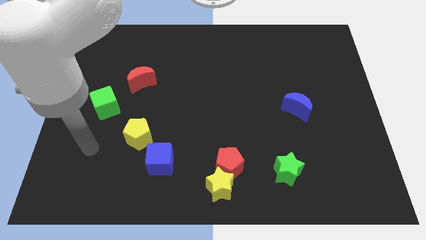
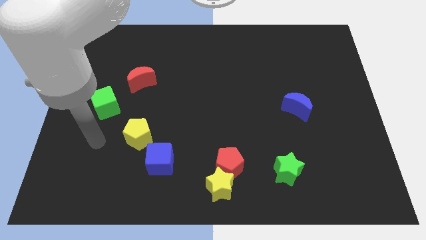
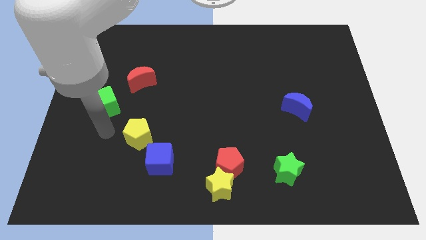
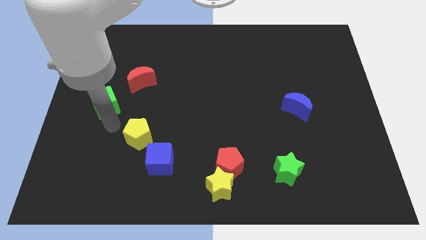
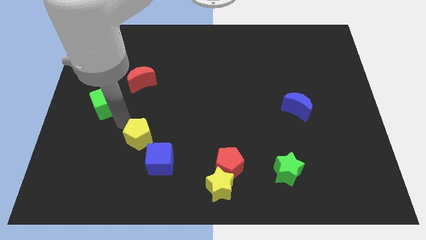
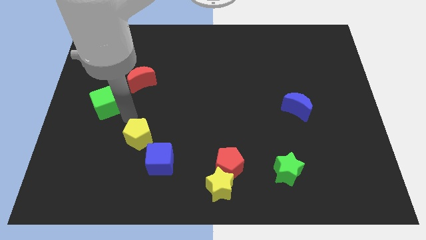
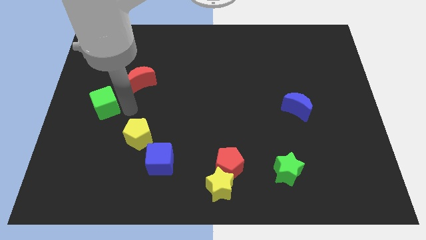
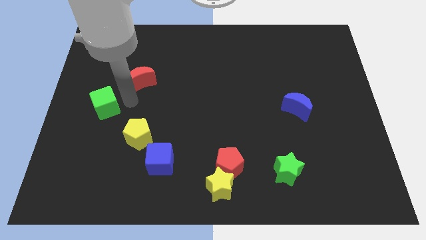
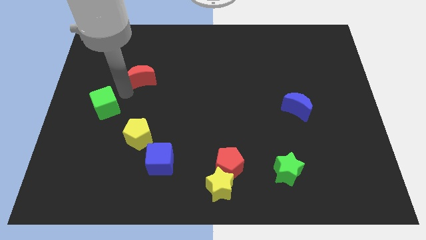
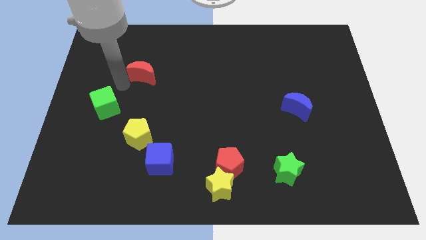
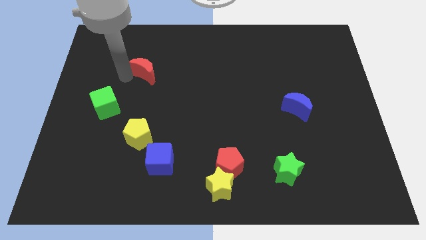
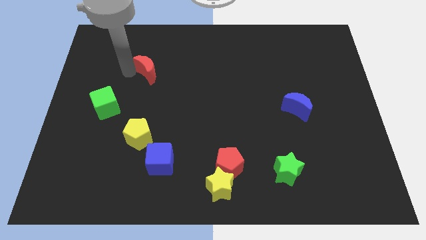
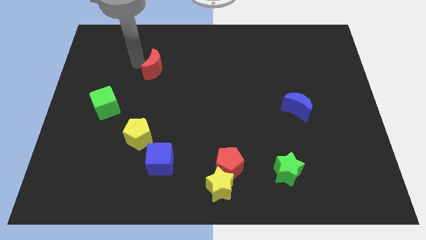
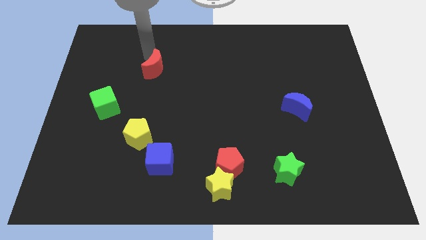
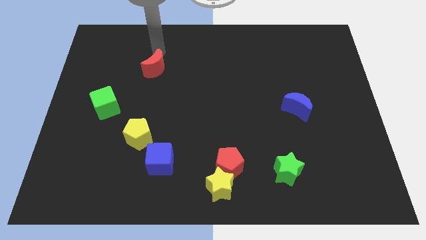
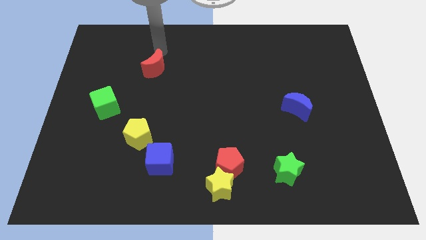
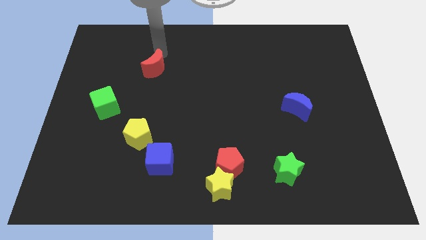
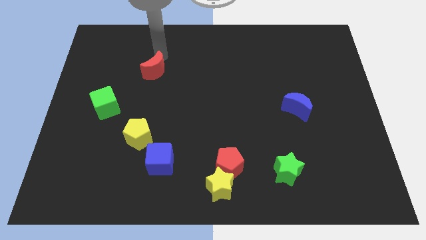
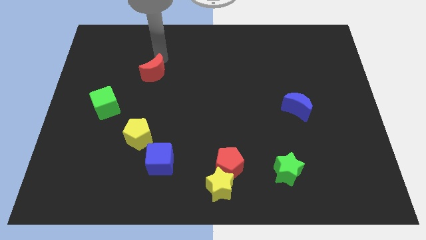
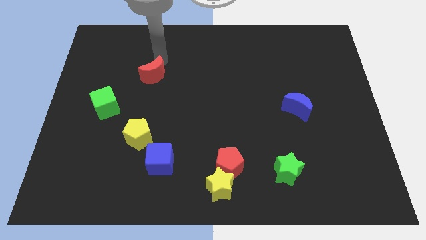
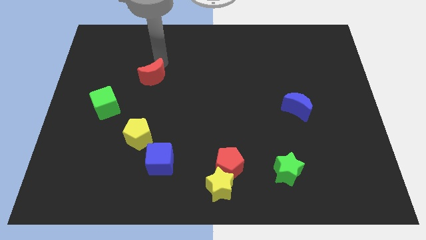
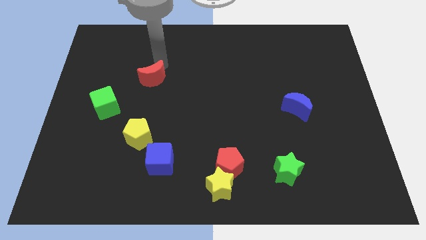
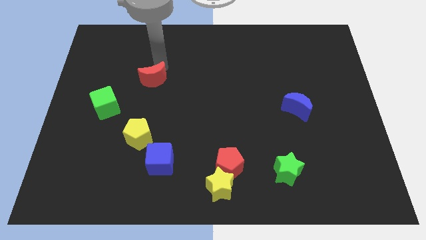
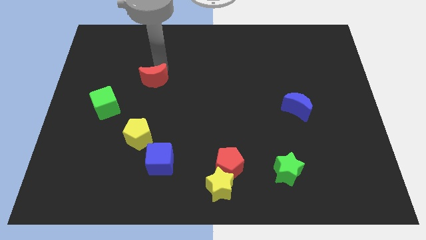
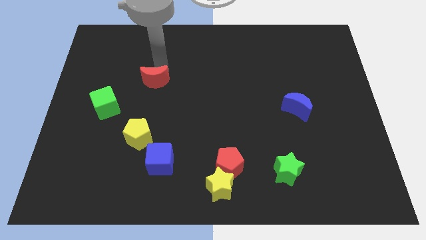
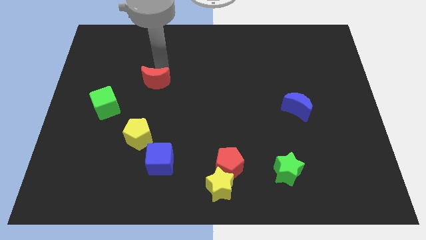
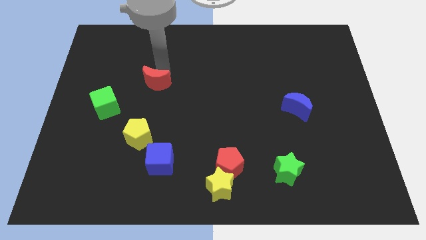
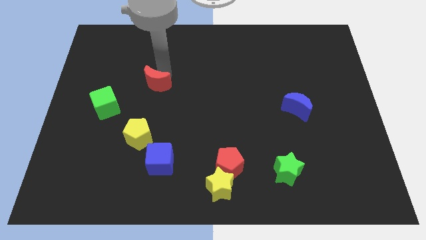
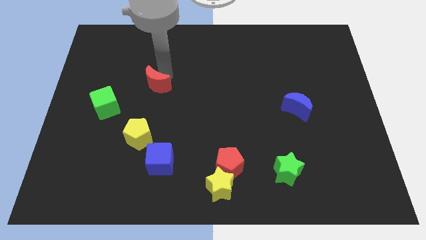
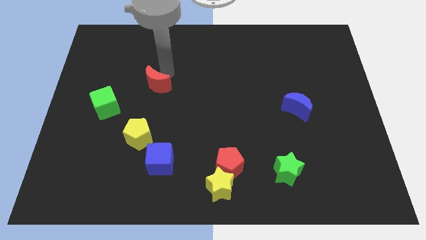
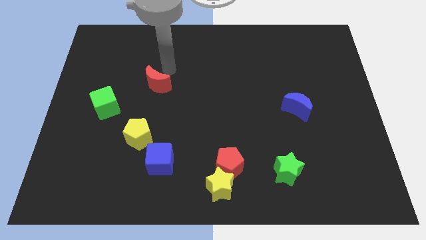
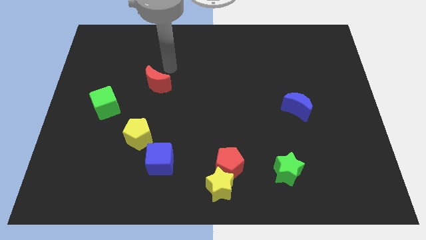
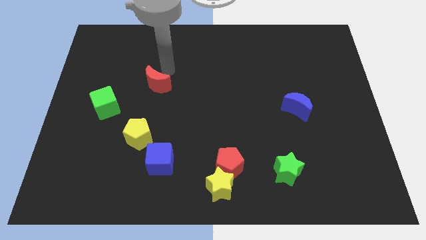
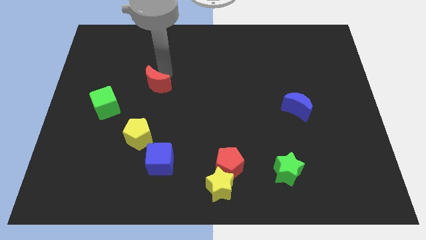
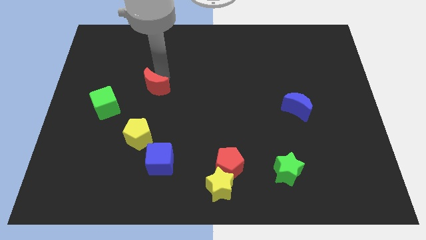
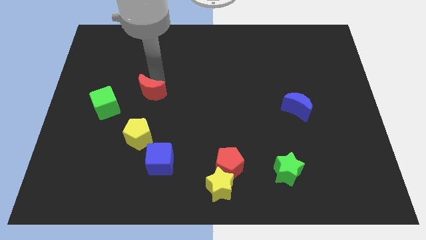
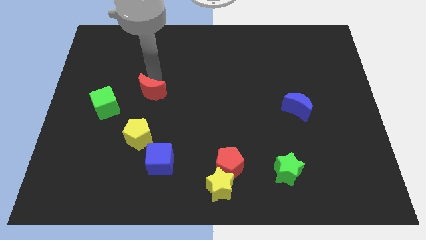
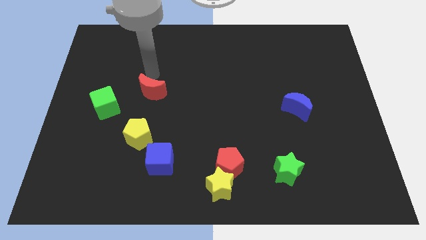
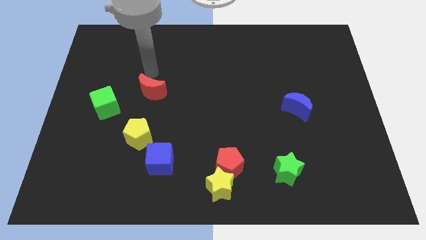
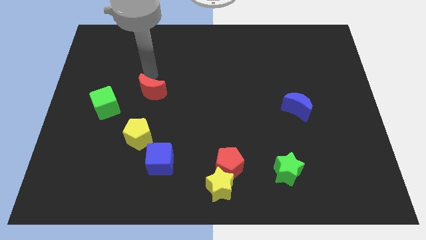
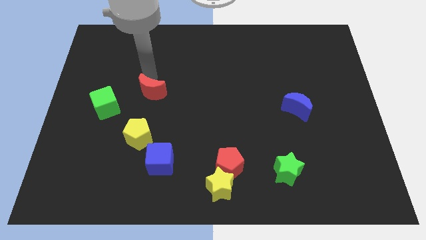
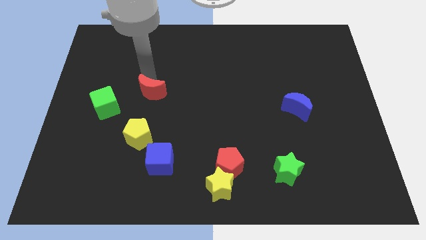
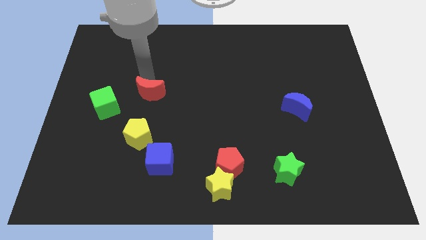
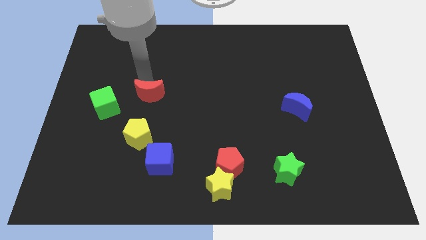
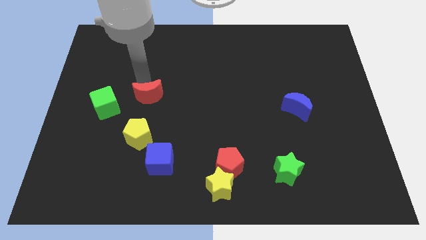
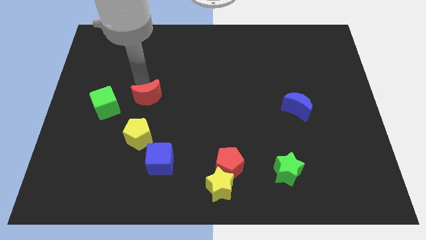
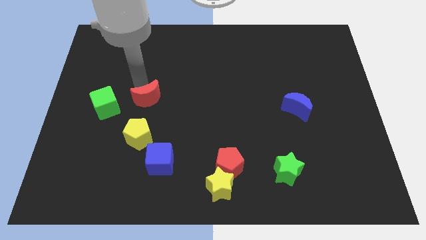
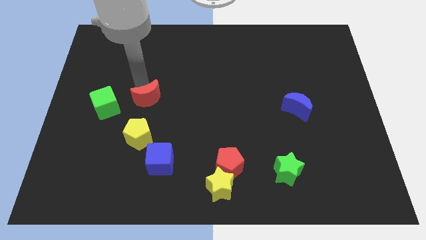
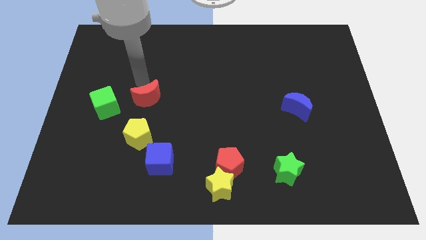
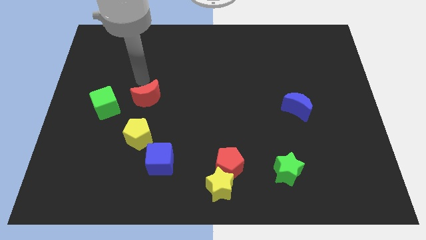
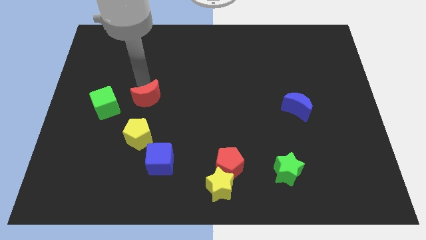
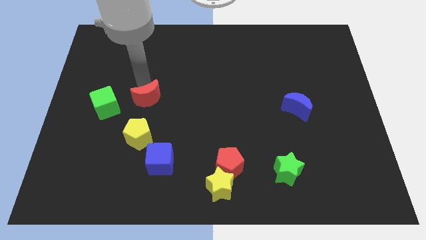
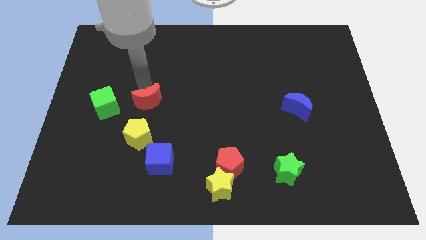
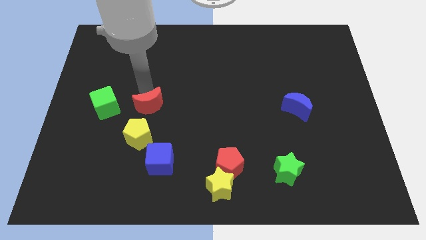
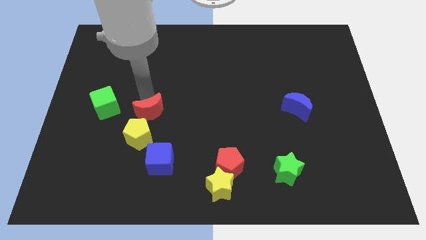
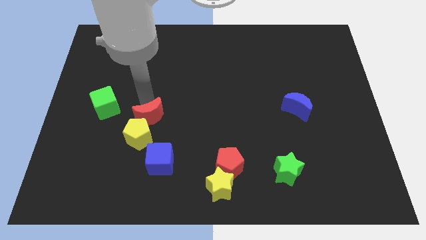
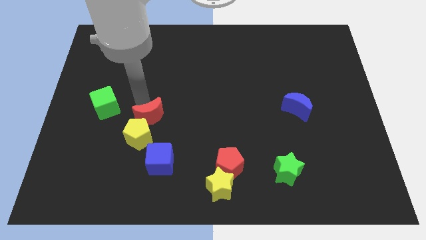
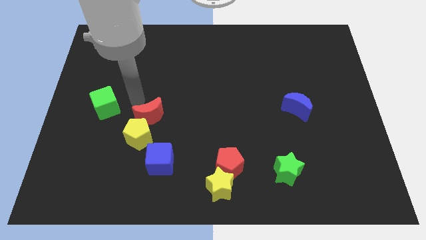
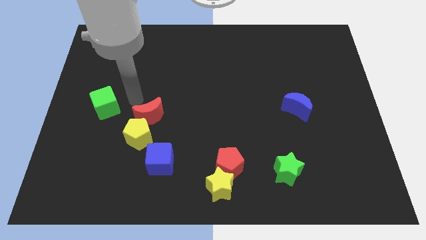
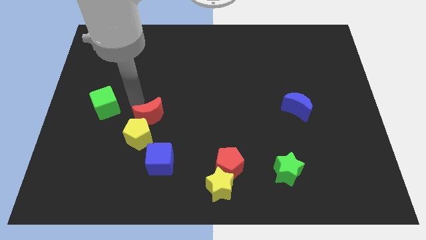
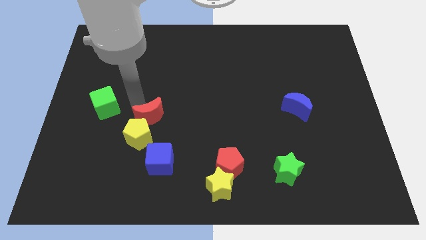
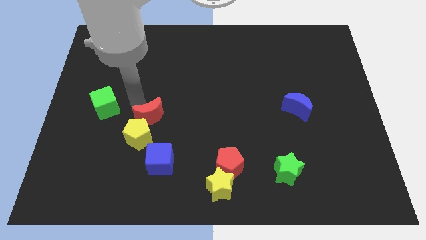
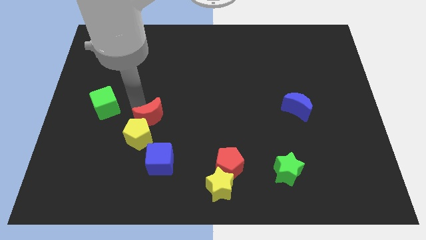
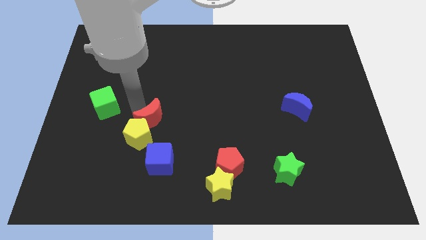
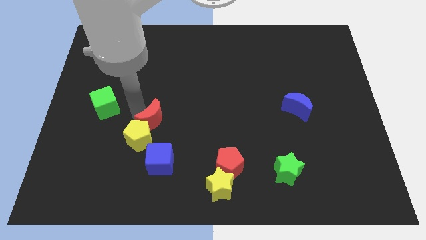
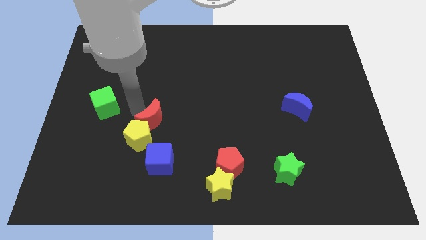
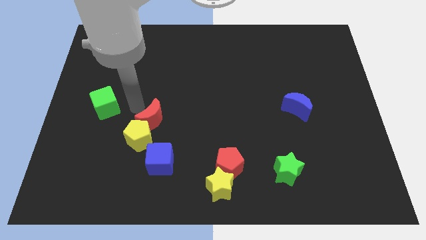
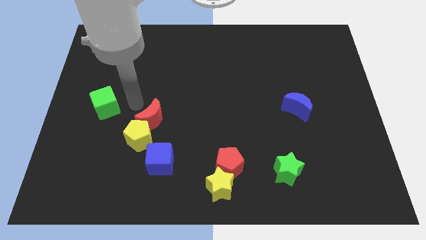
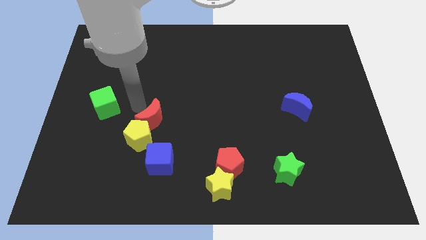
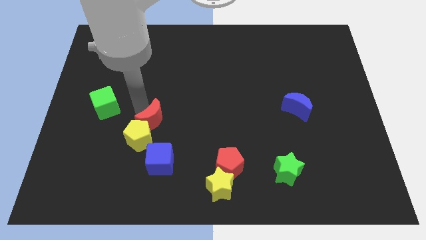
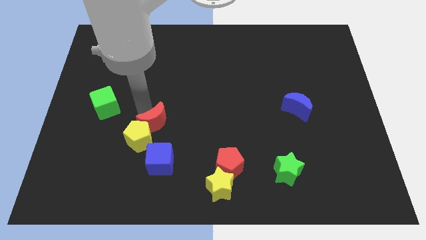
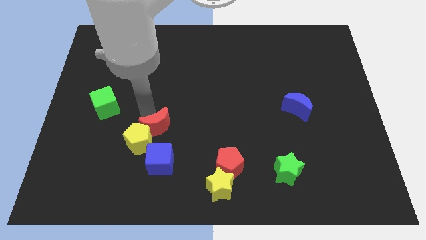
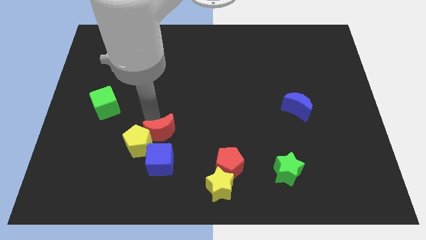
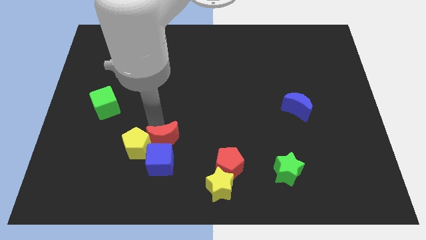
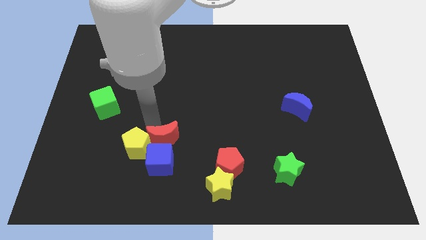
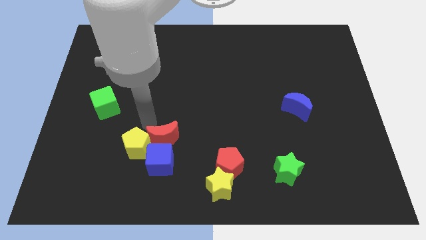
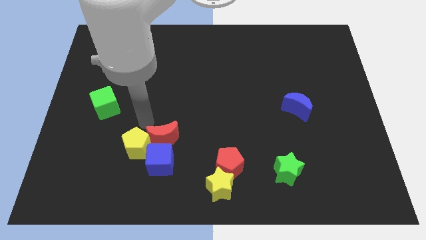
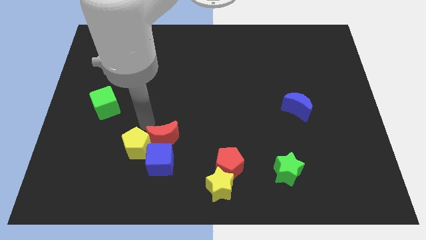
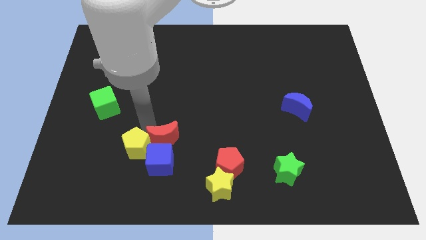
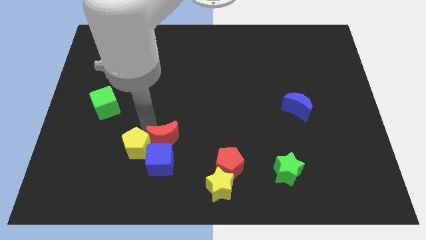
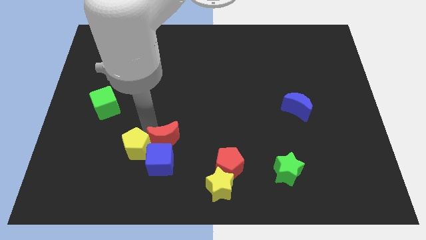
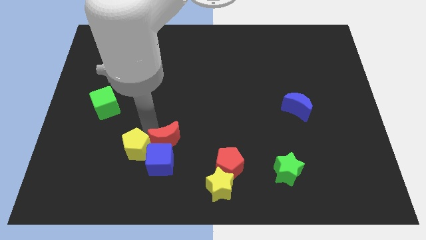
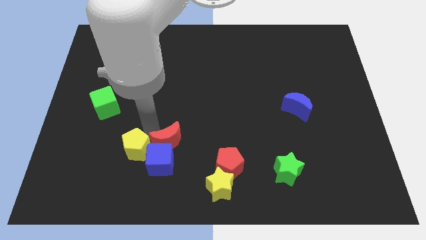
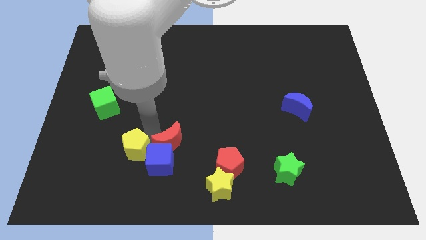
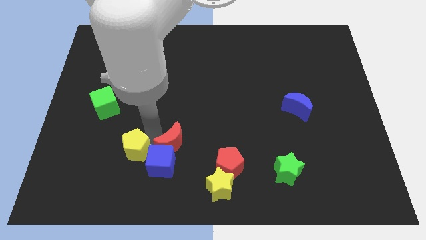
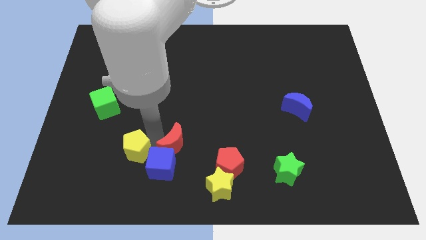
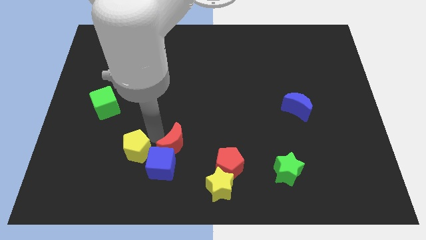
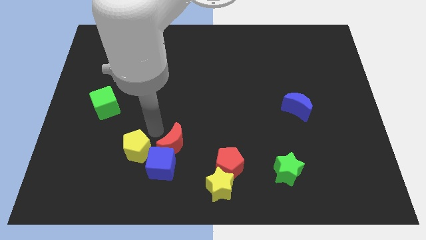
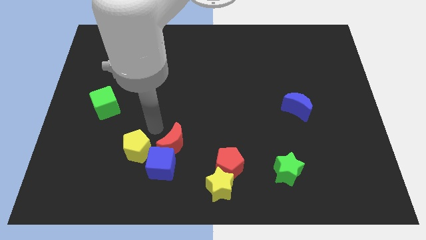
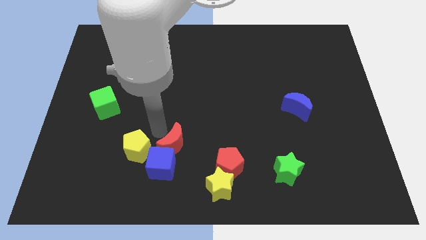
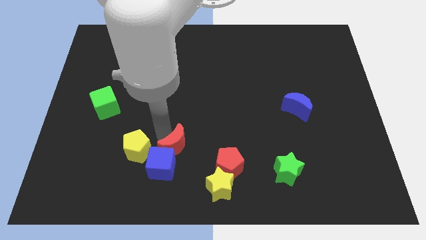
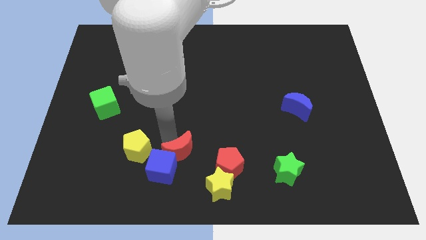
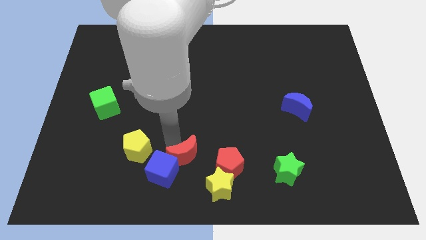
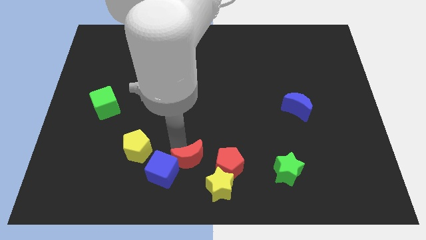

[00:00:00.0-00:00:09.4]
slide the red moon to the bottom side
